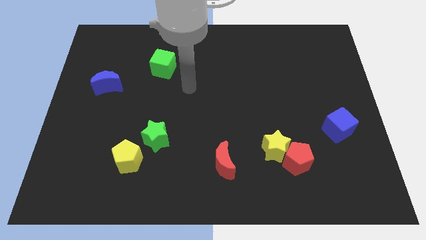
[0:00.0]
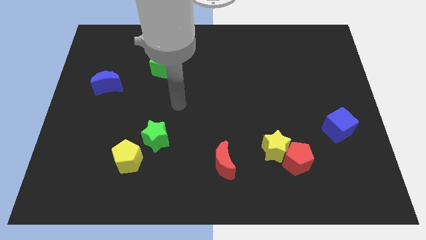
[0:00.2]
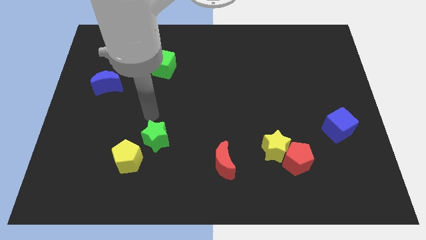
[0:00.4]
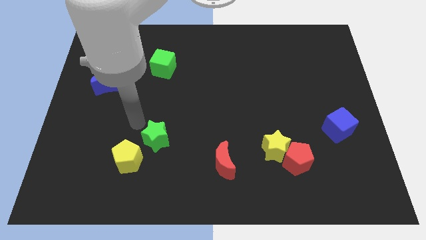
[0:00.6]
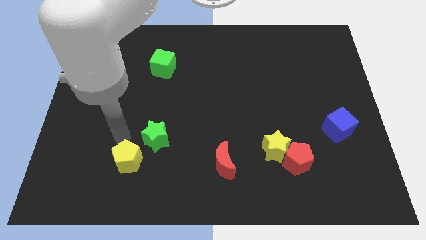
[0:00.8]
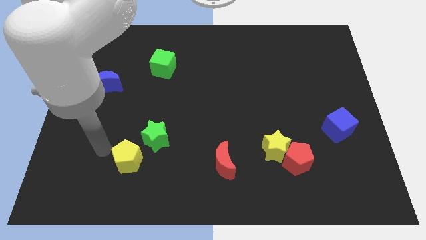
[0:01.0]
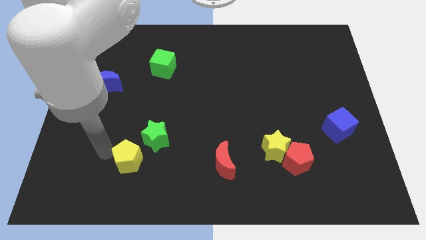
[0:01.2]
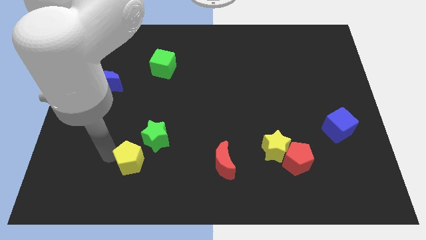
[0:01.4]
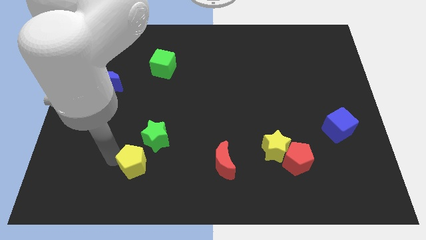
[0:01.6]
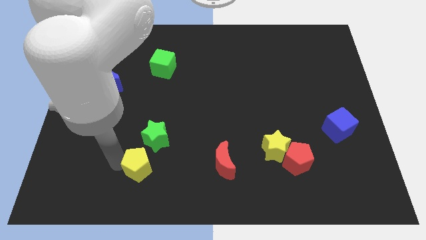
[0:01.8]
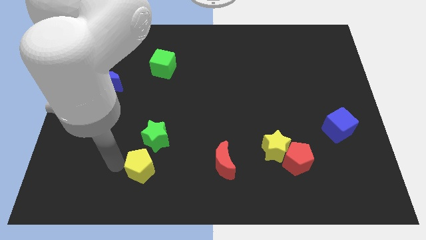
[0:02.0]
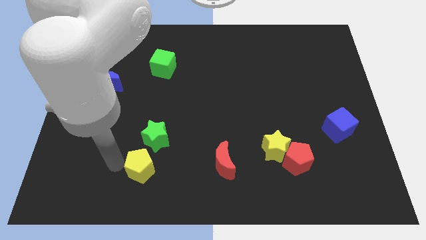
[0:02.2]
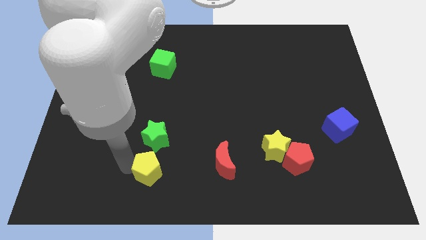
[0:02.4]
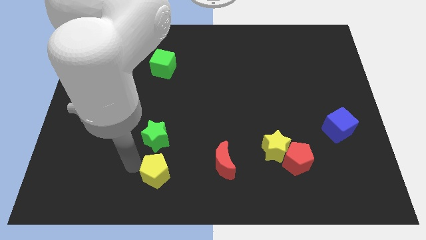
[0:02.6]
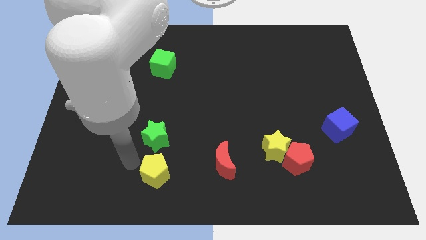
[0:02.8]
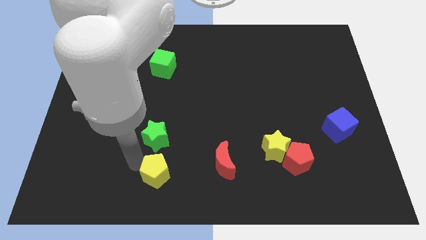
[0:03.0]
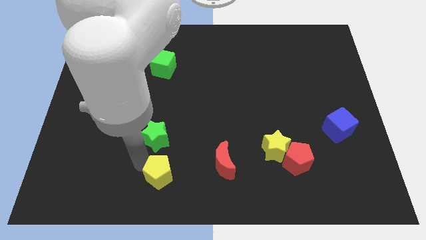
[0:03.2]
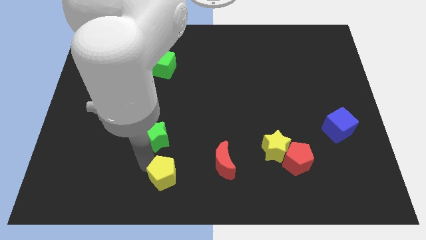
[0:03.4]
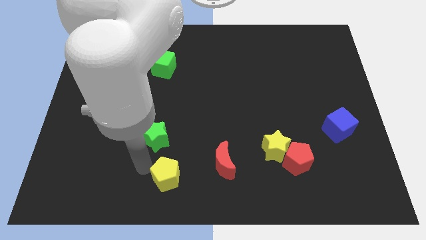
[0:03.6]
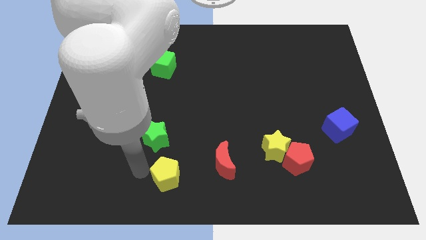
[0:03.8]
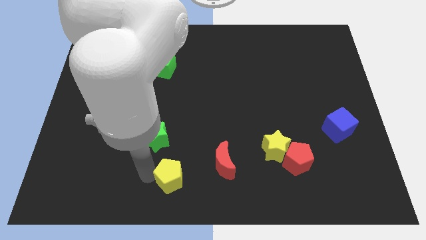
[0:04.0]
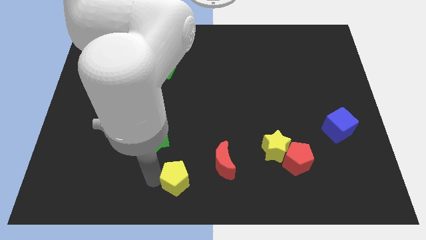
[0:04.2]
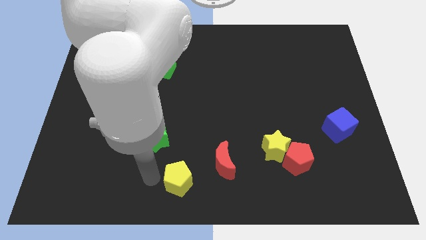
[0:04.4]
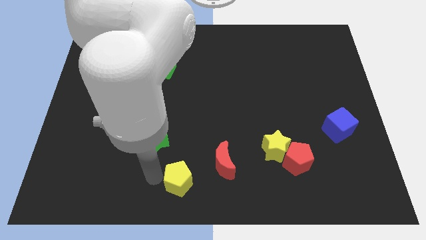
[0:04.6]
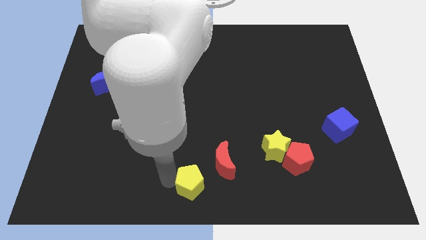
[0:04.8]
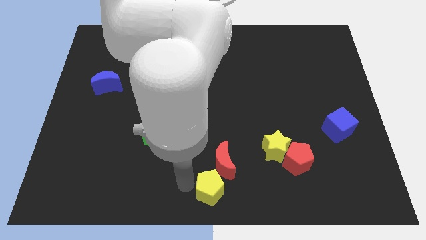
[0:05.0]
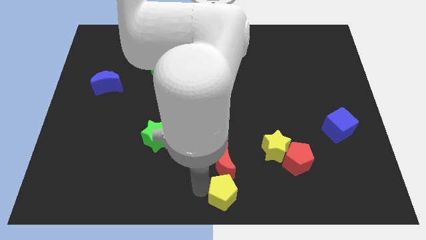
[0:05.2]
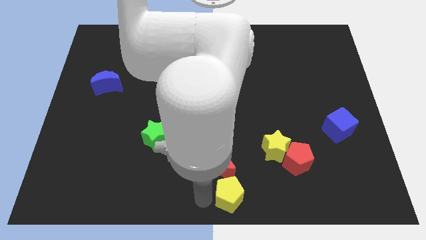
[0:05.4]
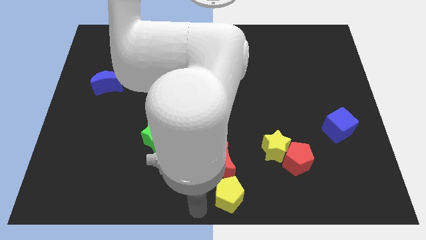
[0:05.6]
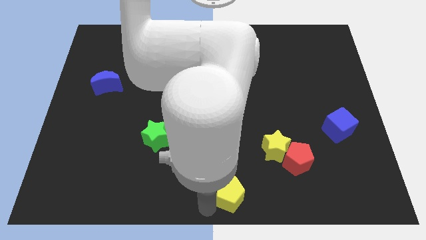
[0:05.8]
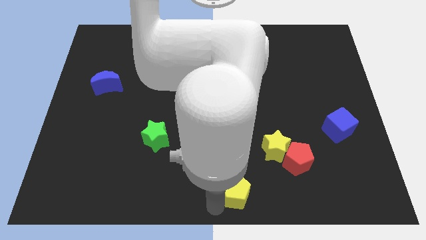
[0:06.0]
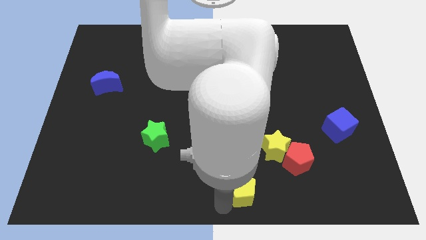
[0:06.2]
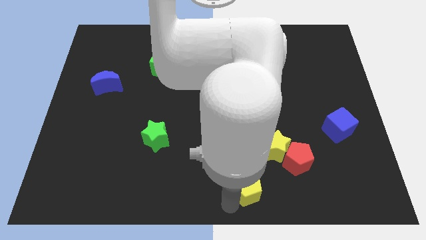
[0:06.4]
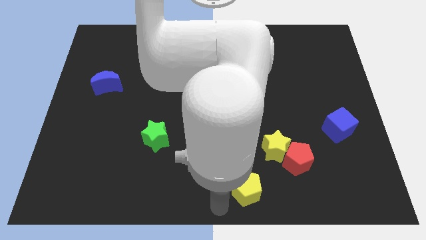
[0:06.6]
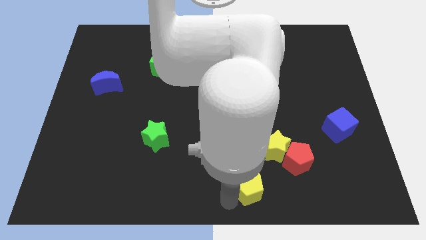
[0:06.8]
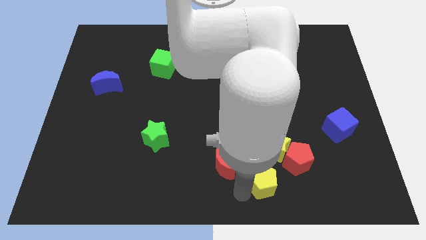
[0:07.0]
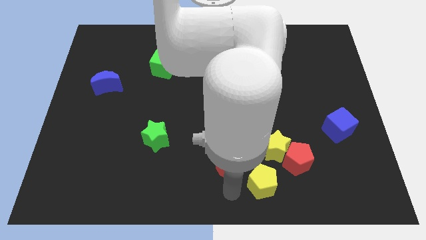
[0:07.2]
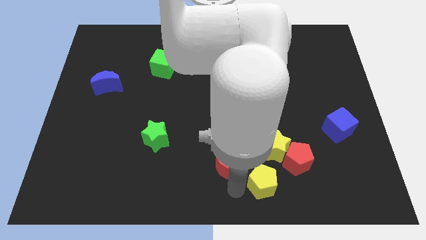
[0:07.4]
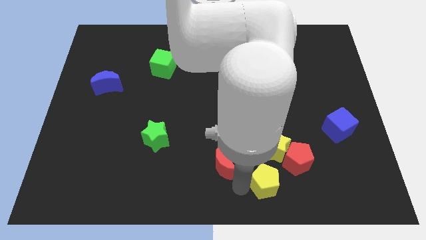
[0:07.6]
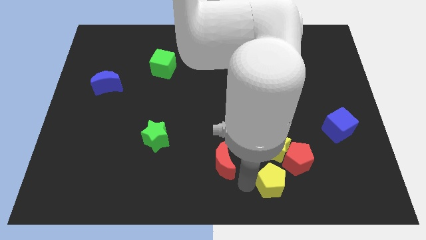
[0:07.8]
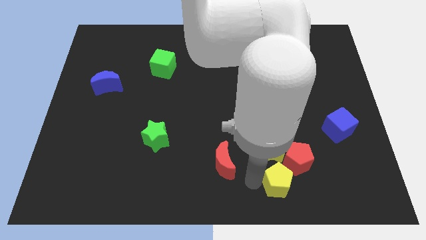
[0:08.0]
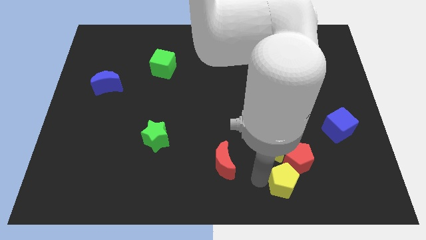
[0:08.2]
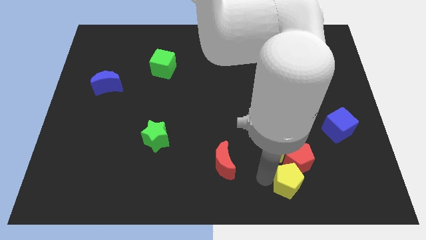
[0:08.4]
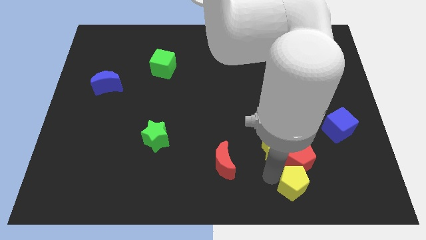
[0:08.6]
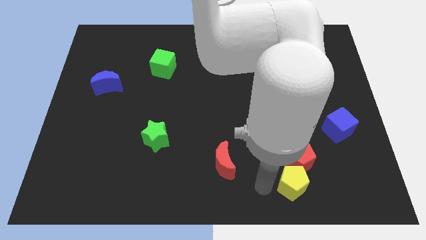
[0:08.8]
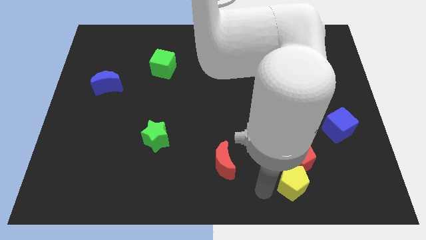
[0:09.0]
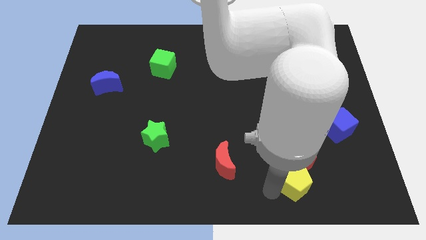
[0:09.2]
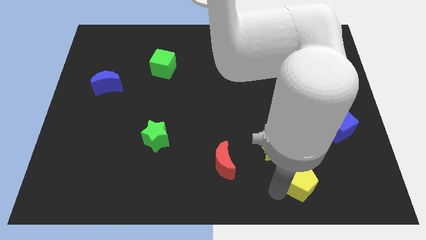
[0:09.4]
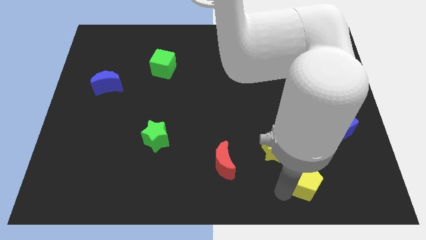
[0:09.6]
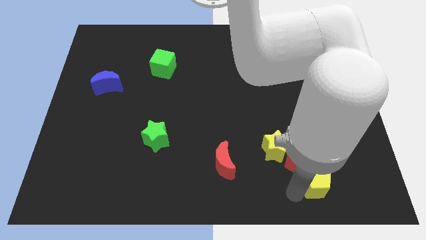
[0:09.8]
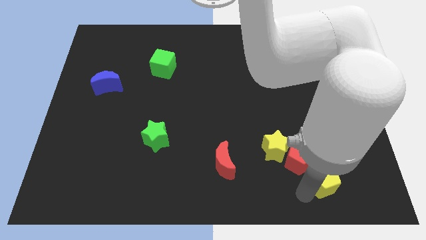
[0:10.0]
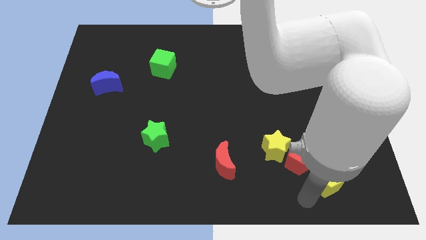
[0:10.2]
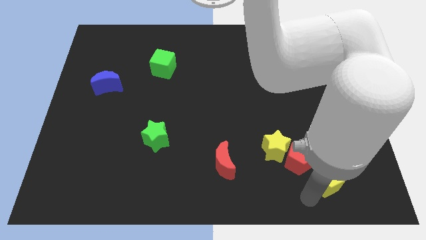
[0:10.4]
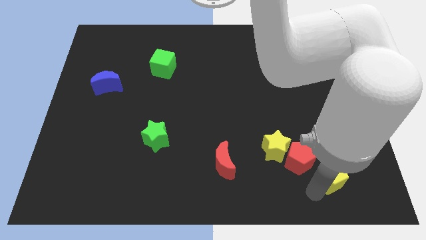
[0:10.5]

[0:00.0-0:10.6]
put the yellow pentagon right of the red pentagon
